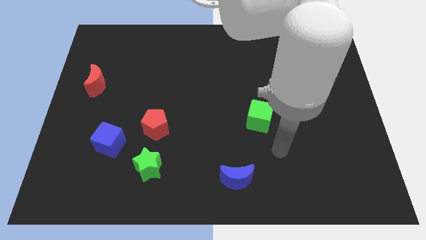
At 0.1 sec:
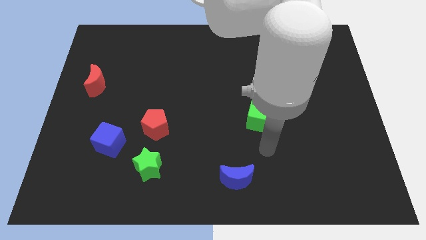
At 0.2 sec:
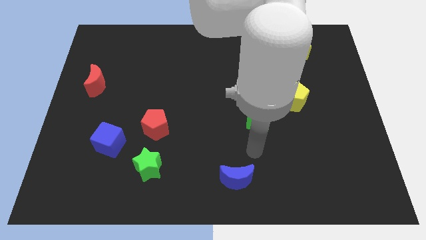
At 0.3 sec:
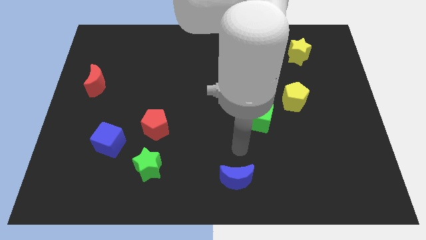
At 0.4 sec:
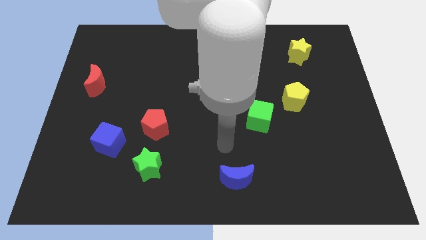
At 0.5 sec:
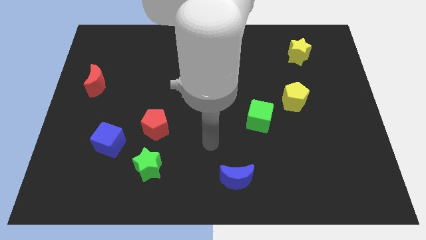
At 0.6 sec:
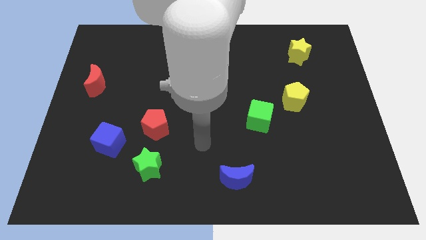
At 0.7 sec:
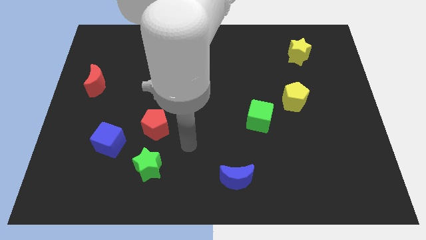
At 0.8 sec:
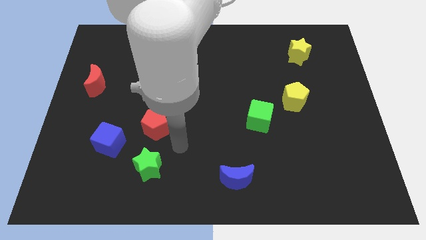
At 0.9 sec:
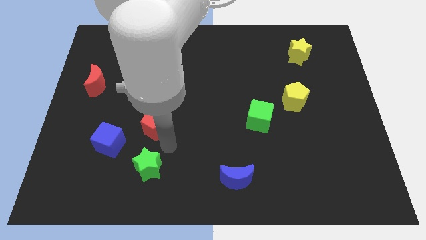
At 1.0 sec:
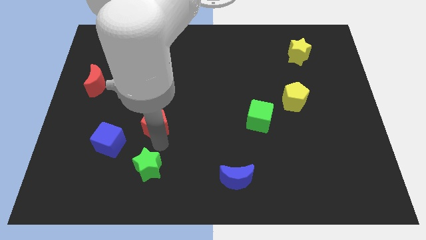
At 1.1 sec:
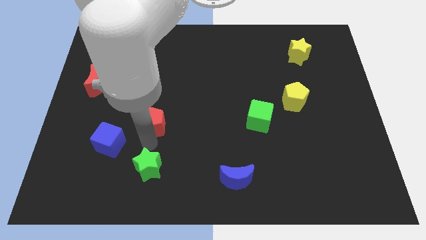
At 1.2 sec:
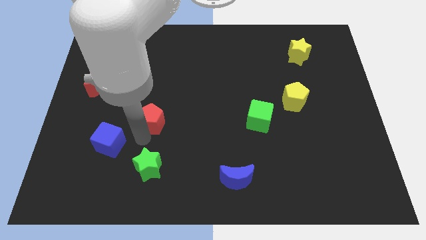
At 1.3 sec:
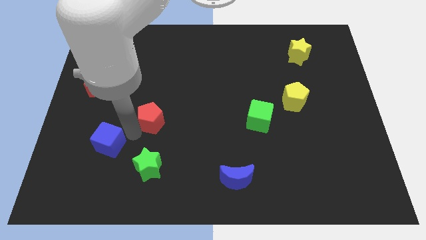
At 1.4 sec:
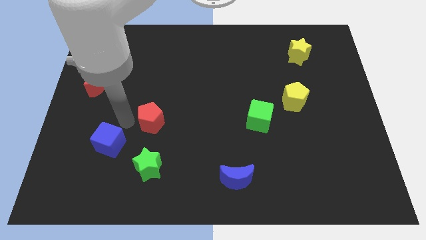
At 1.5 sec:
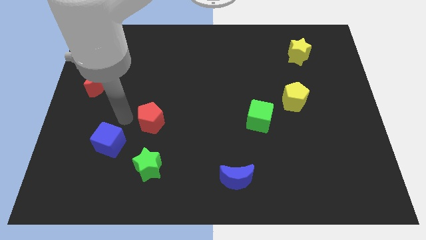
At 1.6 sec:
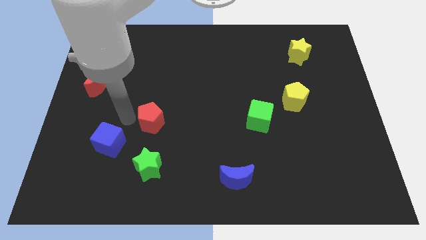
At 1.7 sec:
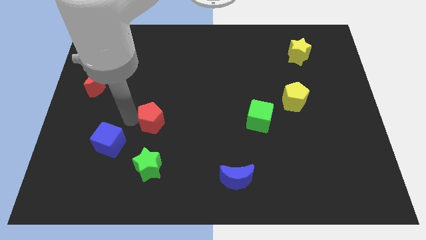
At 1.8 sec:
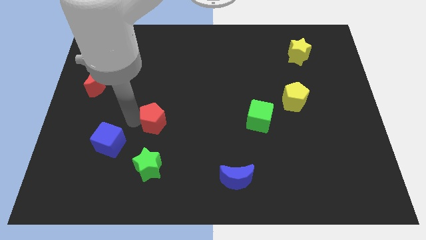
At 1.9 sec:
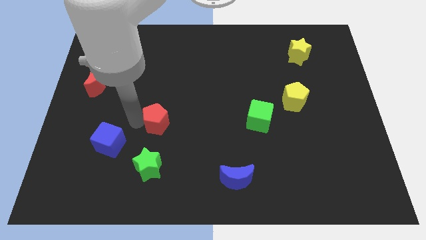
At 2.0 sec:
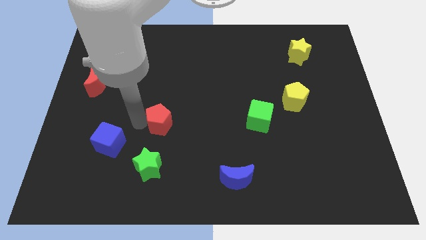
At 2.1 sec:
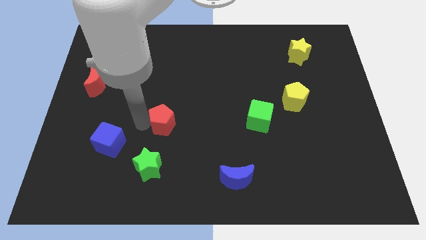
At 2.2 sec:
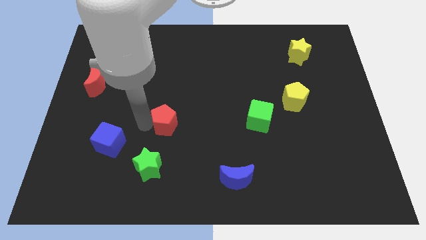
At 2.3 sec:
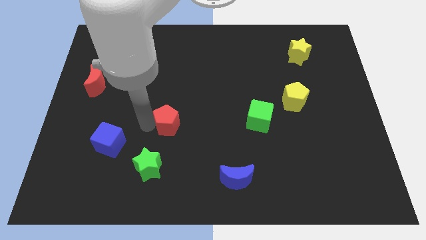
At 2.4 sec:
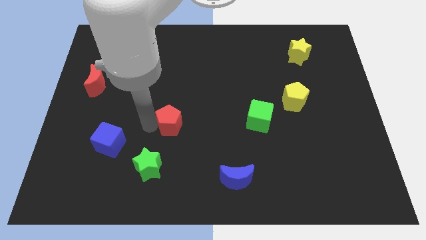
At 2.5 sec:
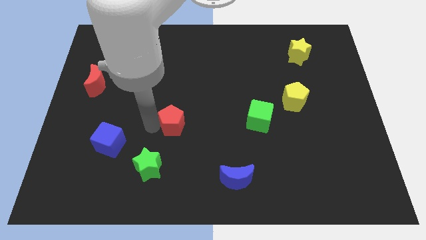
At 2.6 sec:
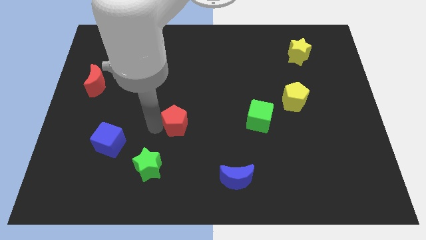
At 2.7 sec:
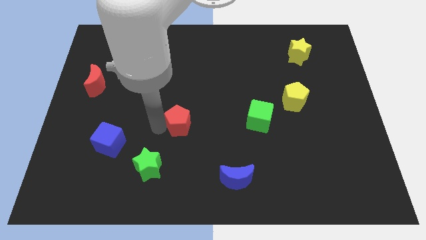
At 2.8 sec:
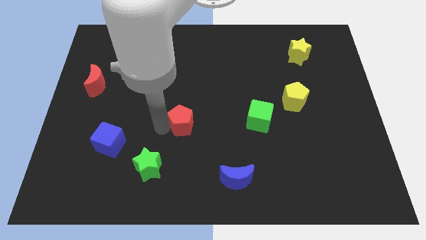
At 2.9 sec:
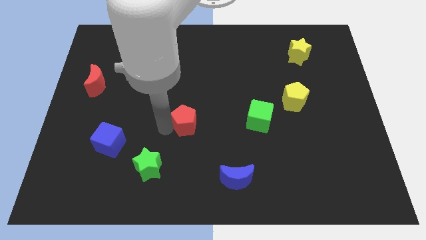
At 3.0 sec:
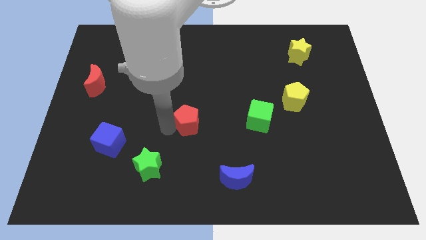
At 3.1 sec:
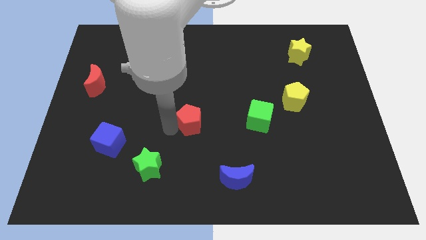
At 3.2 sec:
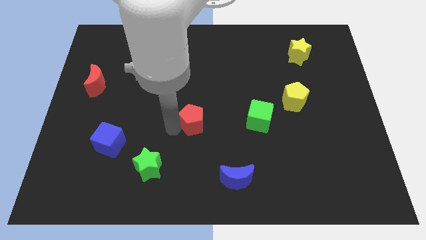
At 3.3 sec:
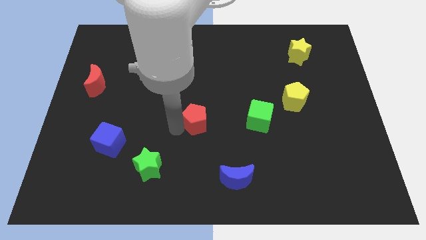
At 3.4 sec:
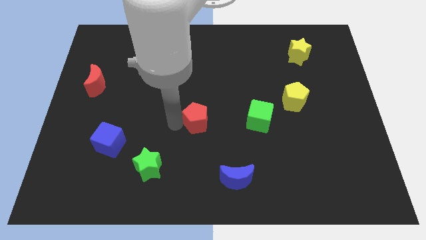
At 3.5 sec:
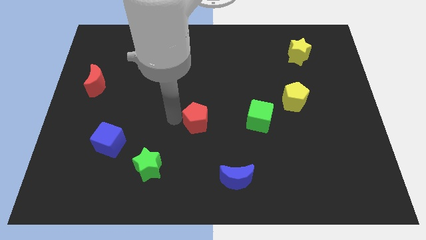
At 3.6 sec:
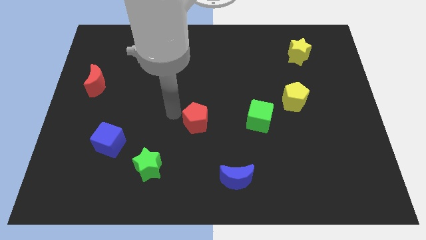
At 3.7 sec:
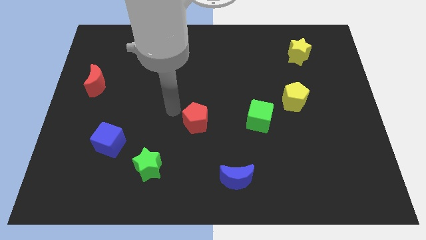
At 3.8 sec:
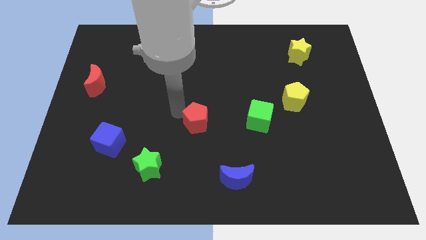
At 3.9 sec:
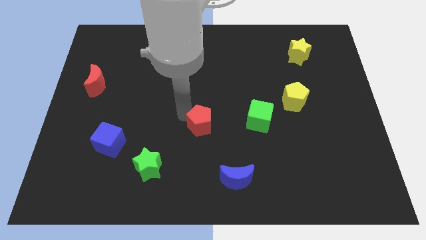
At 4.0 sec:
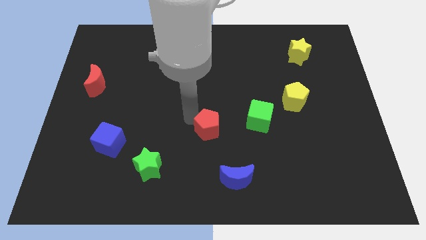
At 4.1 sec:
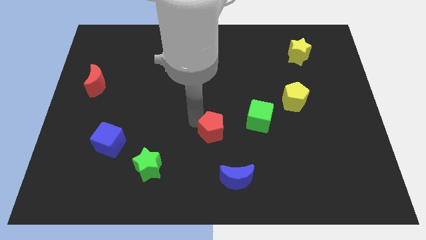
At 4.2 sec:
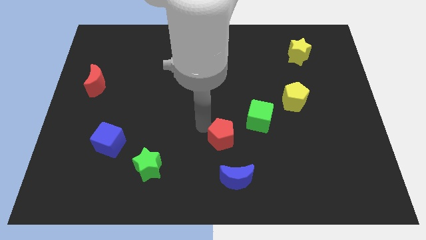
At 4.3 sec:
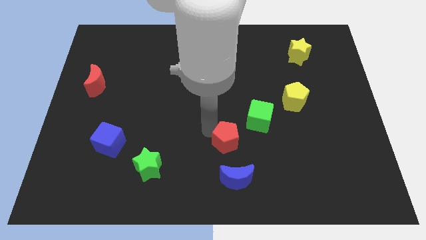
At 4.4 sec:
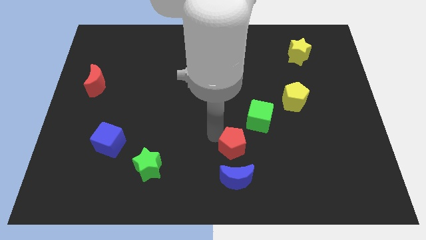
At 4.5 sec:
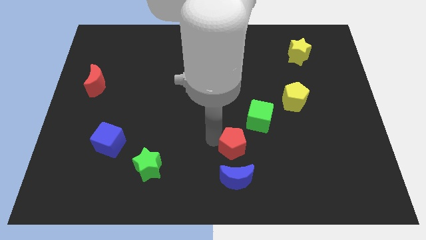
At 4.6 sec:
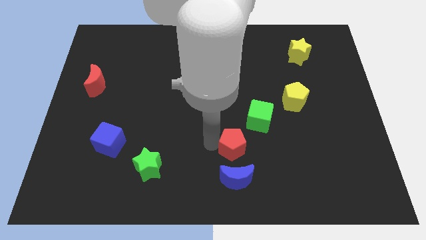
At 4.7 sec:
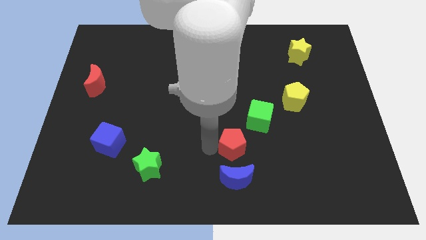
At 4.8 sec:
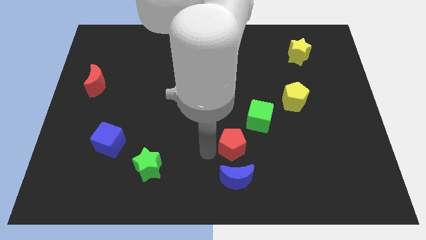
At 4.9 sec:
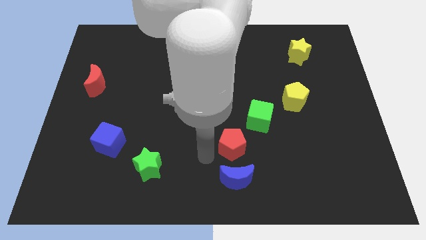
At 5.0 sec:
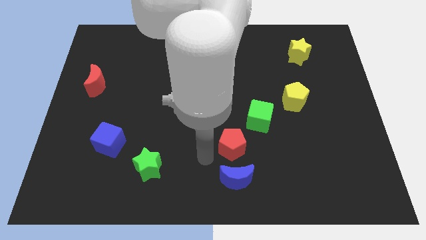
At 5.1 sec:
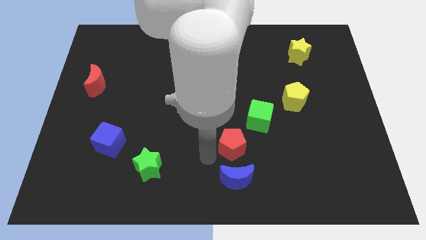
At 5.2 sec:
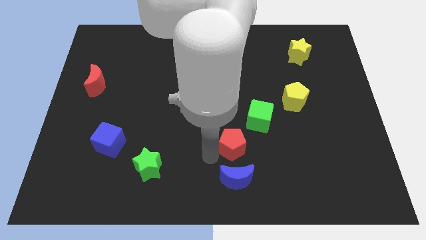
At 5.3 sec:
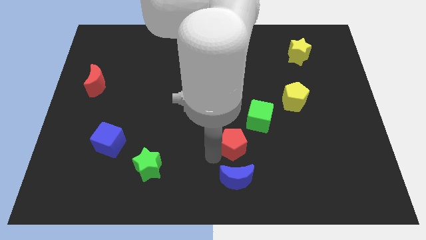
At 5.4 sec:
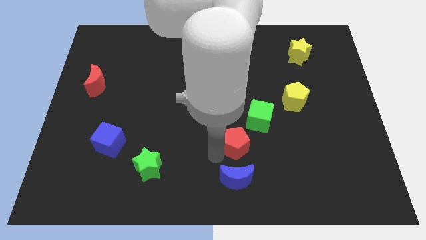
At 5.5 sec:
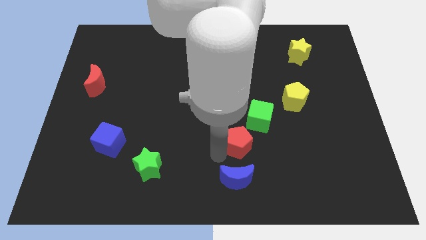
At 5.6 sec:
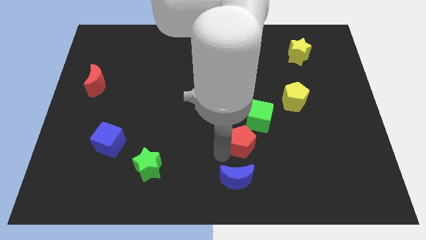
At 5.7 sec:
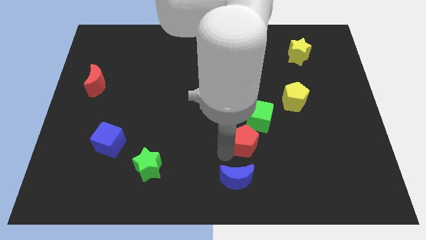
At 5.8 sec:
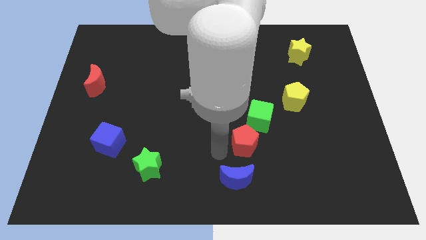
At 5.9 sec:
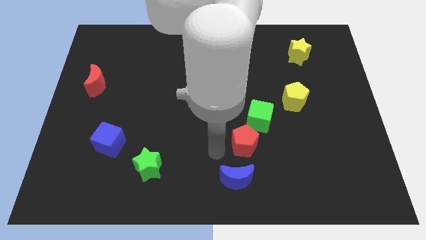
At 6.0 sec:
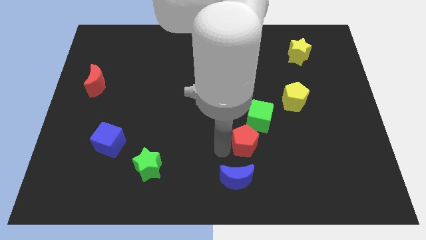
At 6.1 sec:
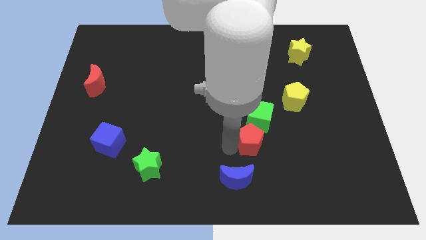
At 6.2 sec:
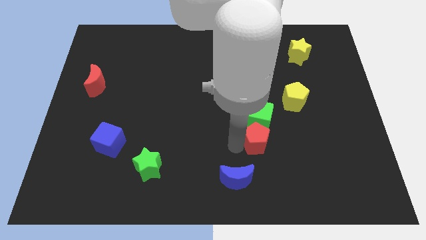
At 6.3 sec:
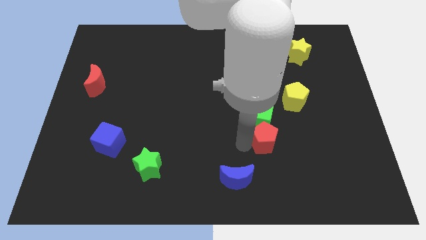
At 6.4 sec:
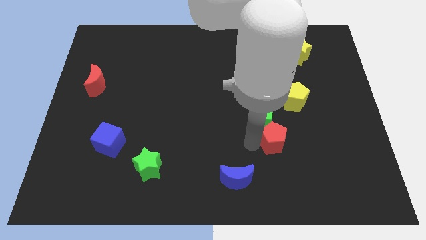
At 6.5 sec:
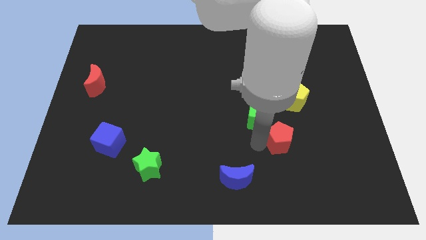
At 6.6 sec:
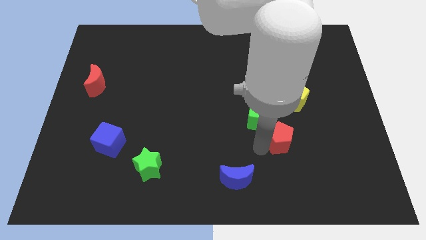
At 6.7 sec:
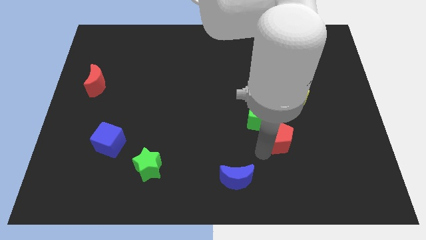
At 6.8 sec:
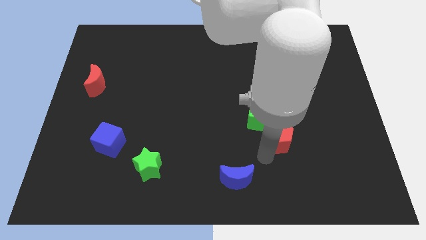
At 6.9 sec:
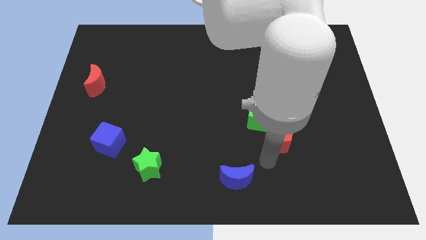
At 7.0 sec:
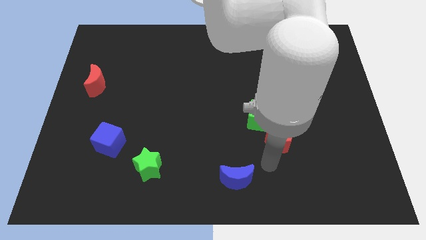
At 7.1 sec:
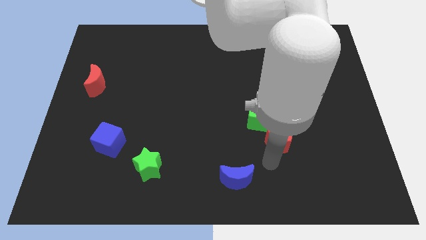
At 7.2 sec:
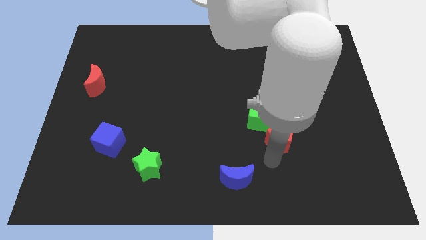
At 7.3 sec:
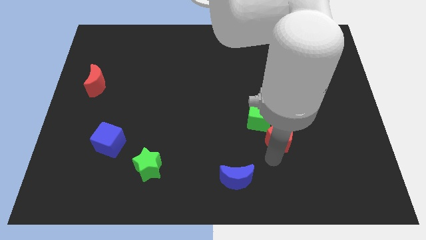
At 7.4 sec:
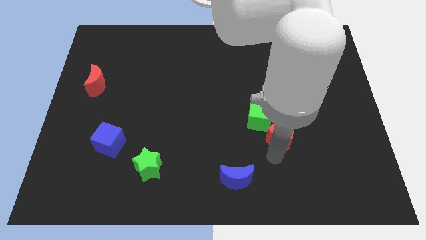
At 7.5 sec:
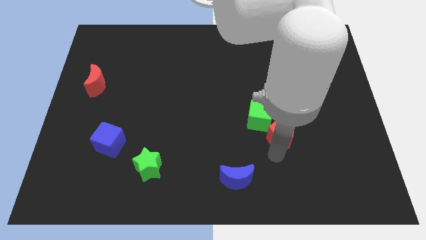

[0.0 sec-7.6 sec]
move the red pentagon just right of the green cube
